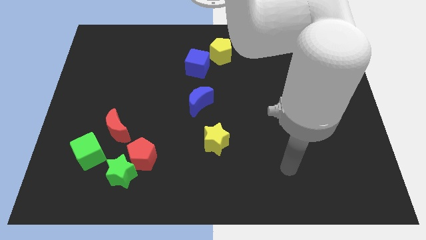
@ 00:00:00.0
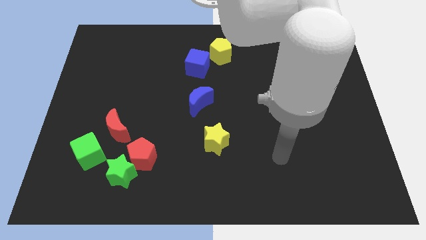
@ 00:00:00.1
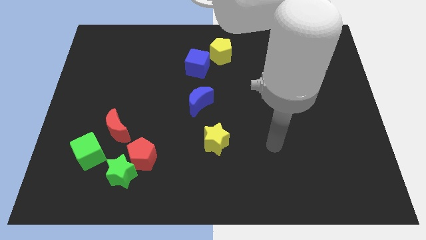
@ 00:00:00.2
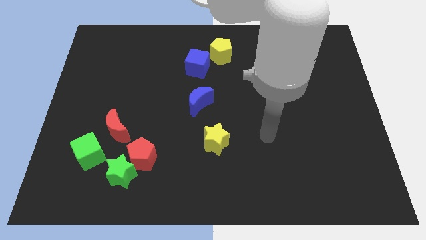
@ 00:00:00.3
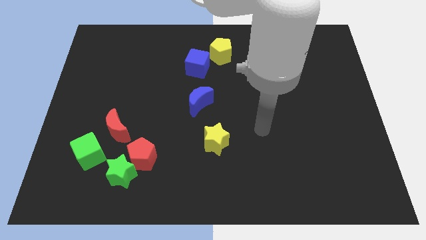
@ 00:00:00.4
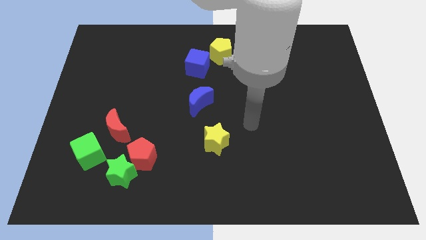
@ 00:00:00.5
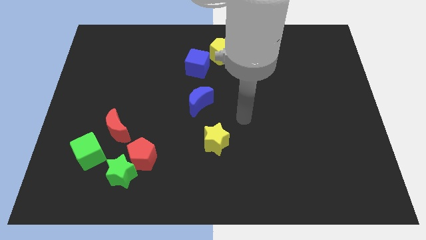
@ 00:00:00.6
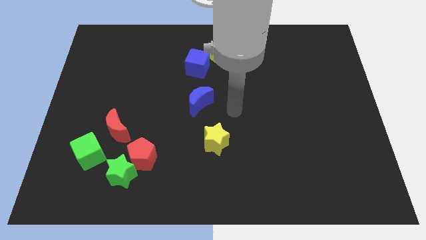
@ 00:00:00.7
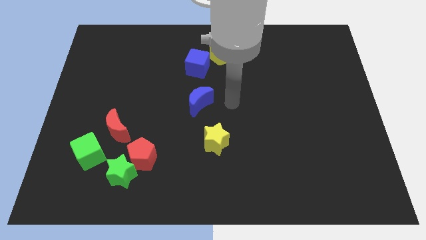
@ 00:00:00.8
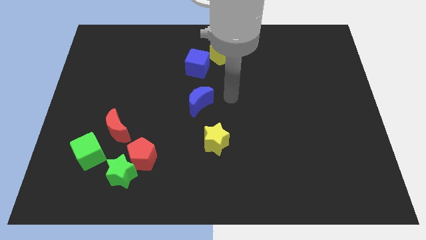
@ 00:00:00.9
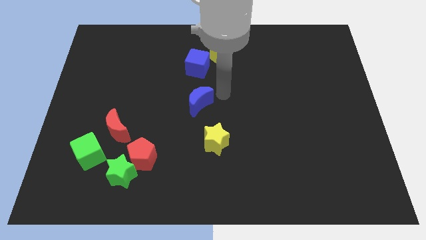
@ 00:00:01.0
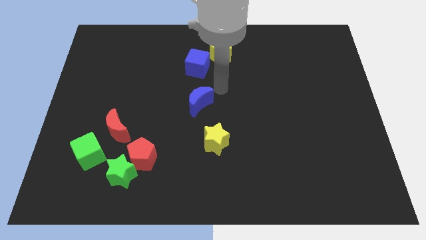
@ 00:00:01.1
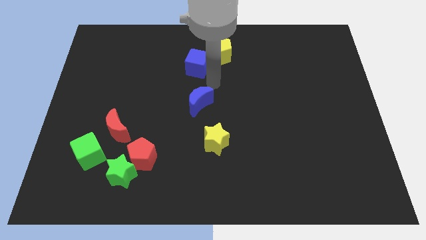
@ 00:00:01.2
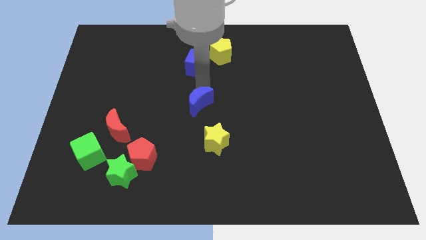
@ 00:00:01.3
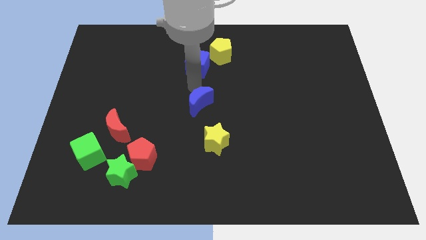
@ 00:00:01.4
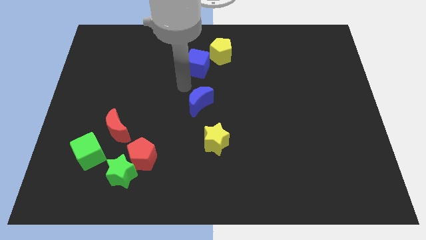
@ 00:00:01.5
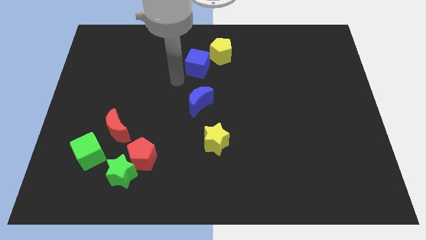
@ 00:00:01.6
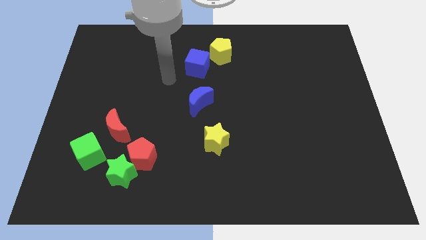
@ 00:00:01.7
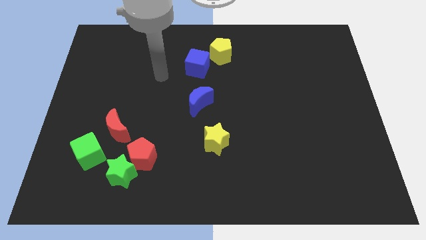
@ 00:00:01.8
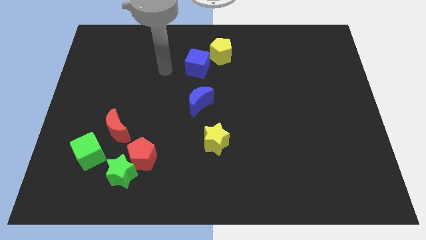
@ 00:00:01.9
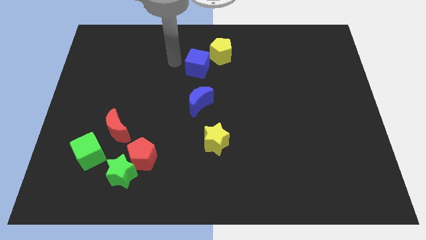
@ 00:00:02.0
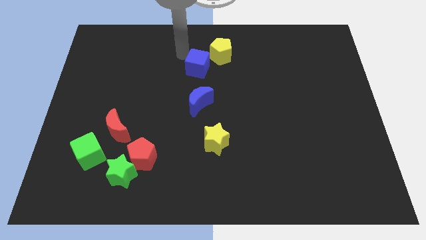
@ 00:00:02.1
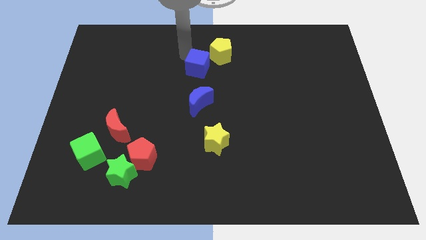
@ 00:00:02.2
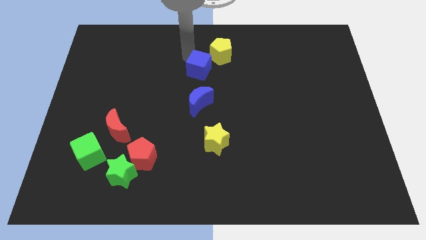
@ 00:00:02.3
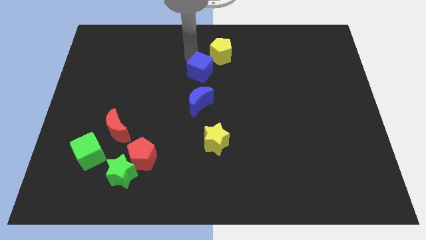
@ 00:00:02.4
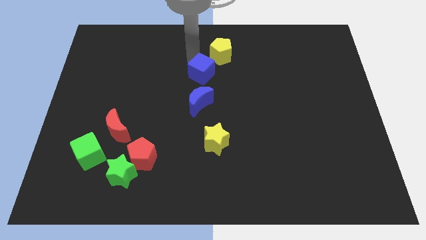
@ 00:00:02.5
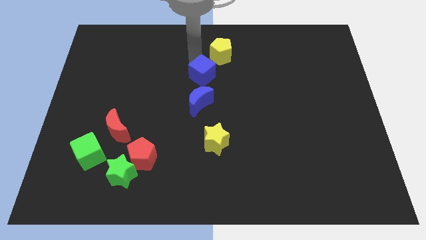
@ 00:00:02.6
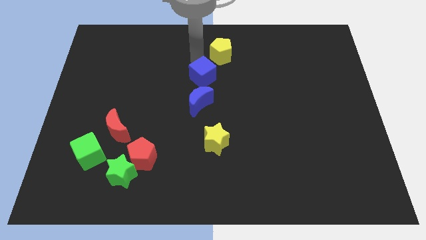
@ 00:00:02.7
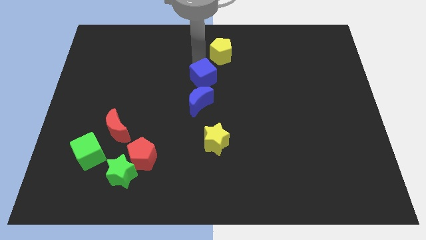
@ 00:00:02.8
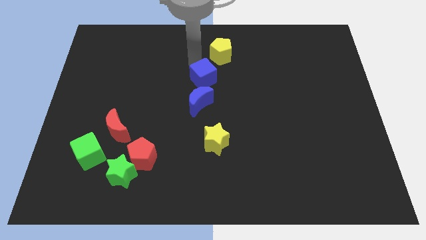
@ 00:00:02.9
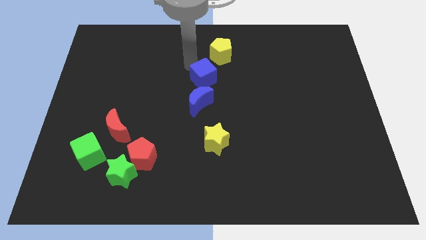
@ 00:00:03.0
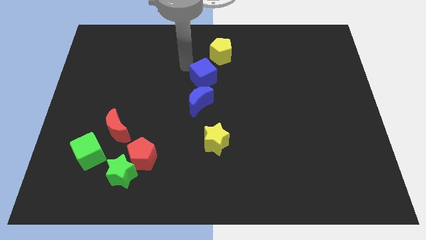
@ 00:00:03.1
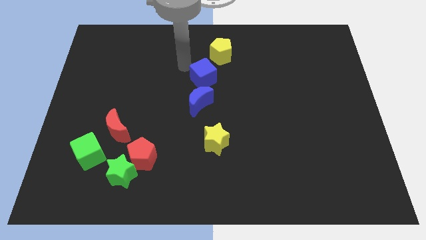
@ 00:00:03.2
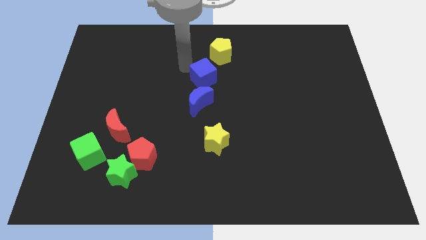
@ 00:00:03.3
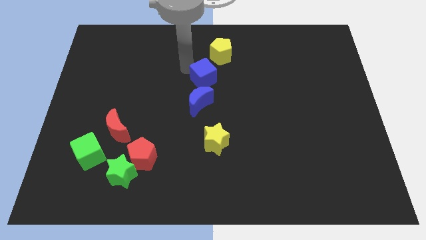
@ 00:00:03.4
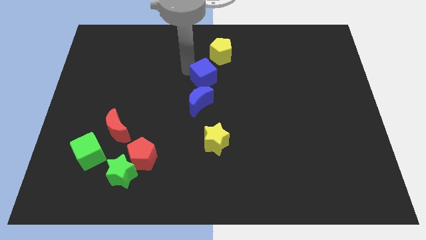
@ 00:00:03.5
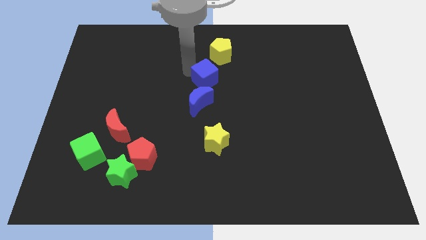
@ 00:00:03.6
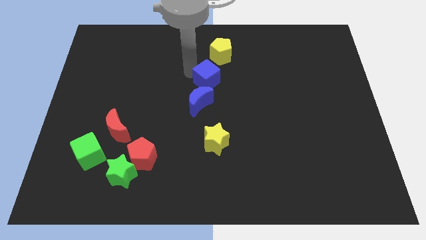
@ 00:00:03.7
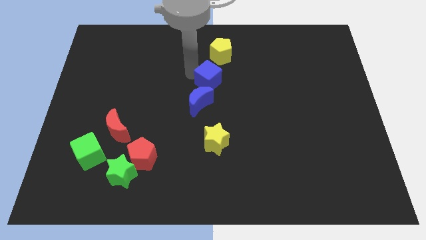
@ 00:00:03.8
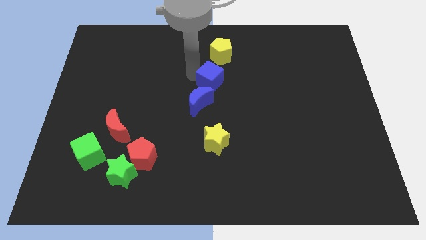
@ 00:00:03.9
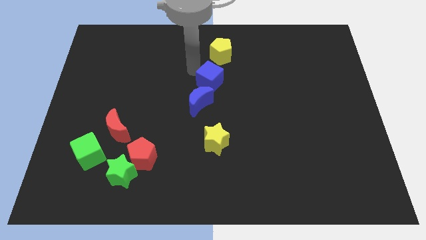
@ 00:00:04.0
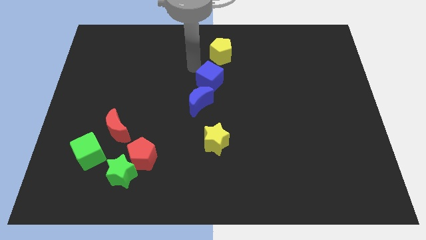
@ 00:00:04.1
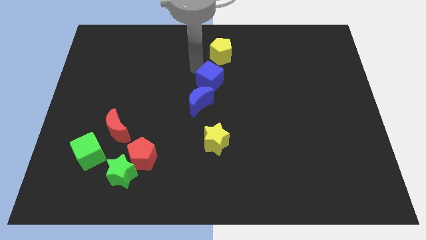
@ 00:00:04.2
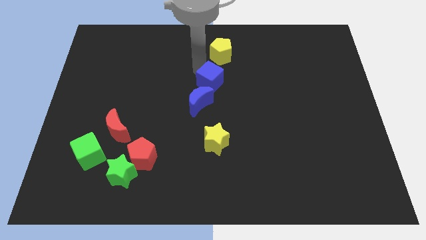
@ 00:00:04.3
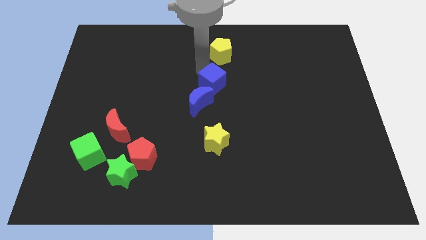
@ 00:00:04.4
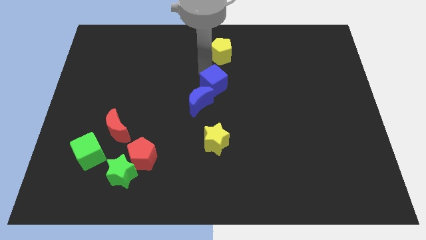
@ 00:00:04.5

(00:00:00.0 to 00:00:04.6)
move the blue cube diagonally down and right somewhat

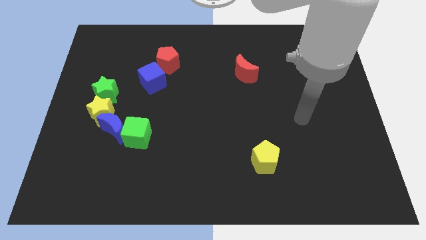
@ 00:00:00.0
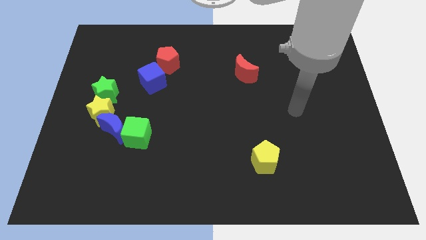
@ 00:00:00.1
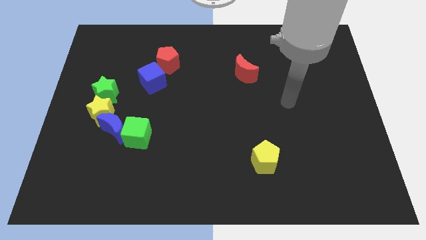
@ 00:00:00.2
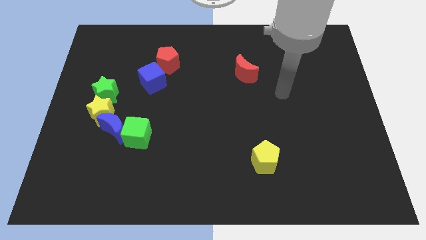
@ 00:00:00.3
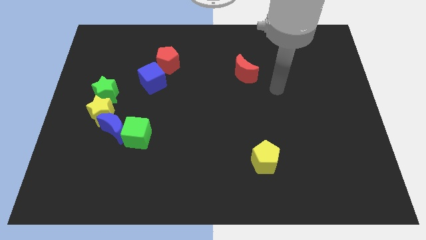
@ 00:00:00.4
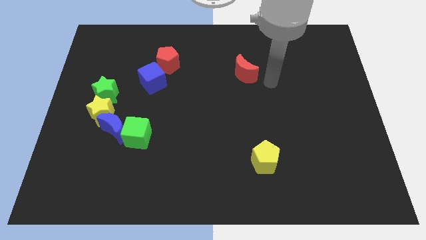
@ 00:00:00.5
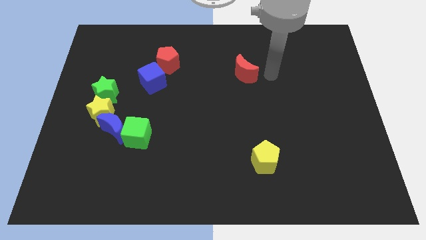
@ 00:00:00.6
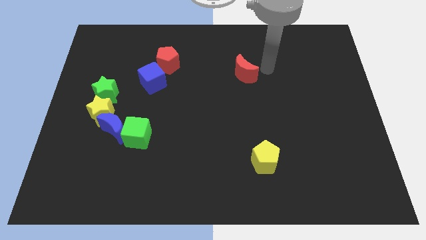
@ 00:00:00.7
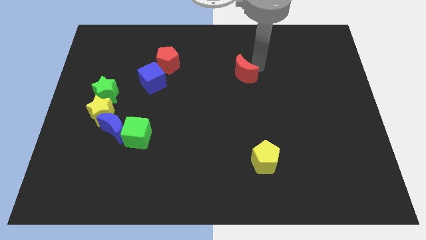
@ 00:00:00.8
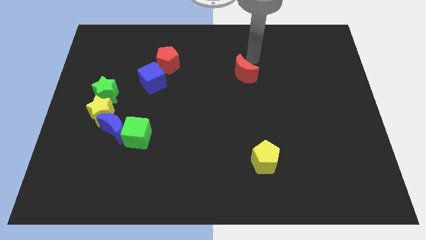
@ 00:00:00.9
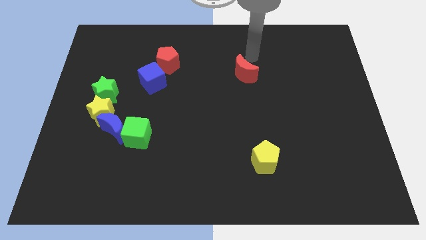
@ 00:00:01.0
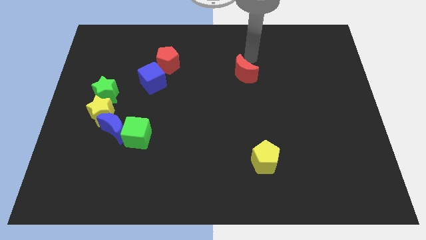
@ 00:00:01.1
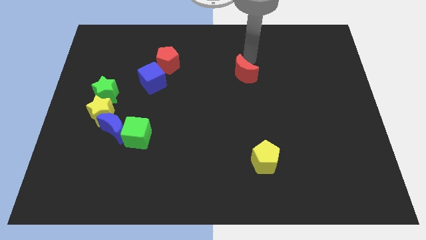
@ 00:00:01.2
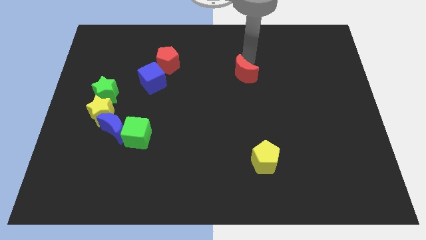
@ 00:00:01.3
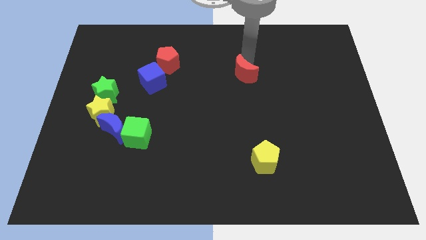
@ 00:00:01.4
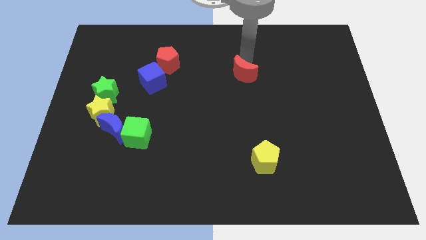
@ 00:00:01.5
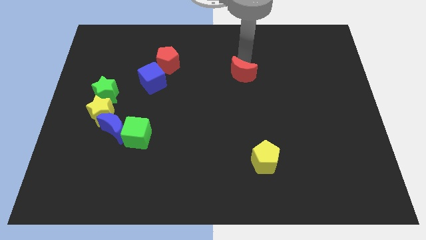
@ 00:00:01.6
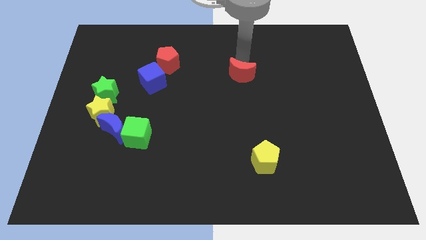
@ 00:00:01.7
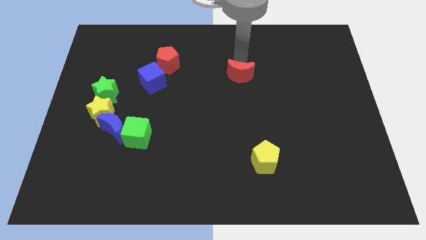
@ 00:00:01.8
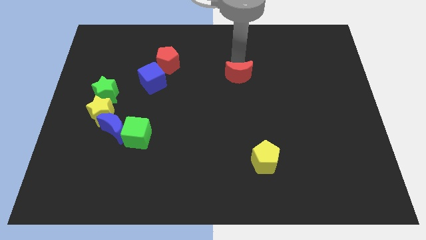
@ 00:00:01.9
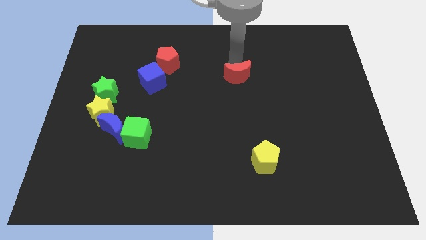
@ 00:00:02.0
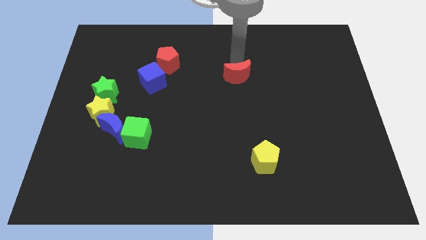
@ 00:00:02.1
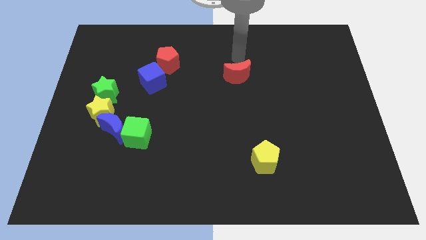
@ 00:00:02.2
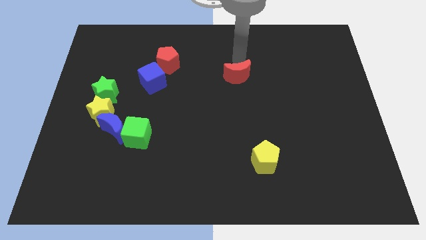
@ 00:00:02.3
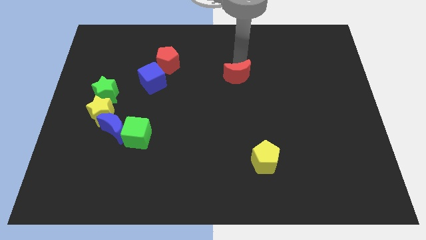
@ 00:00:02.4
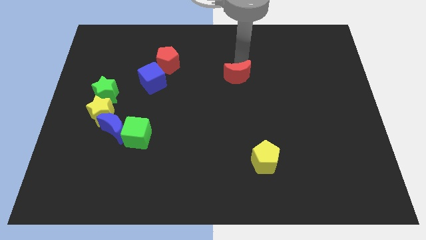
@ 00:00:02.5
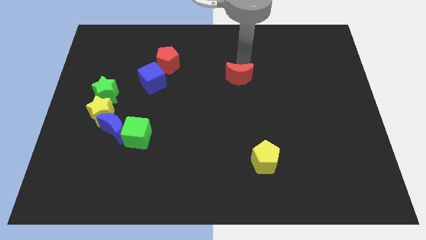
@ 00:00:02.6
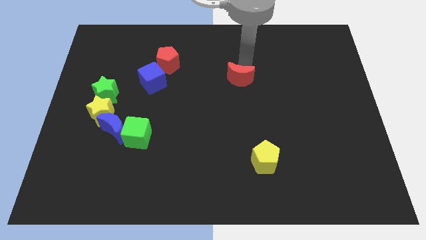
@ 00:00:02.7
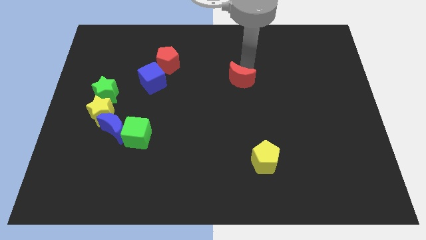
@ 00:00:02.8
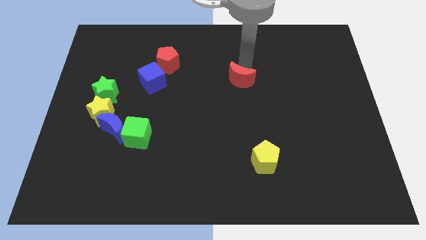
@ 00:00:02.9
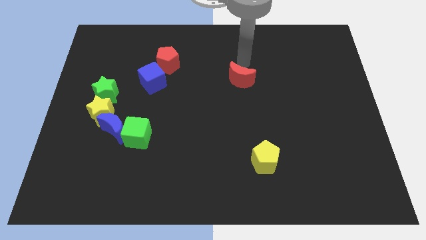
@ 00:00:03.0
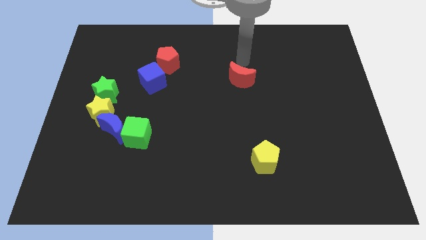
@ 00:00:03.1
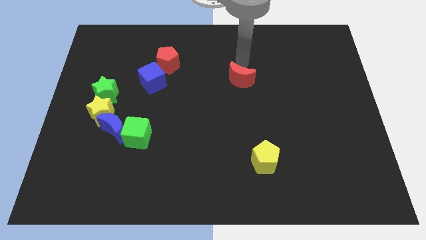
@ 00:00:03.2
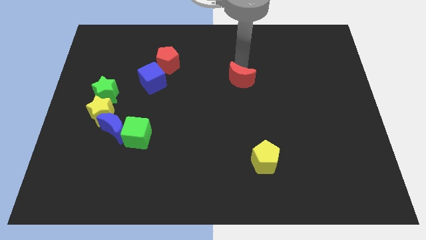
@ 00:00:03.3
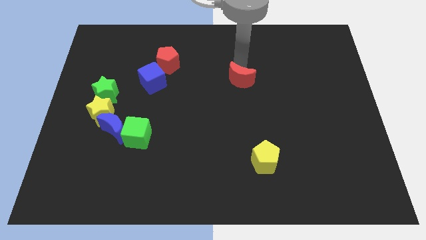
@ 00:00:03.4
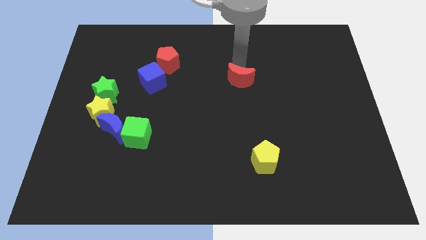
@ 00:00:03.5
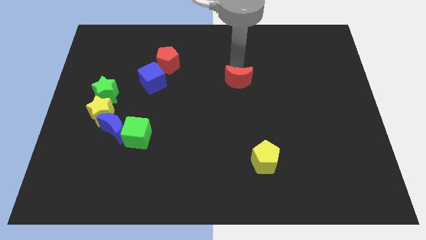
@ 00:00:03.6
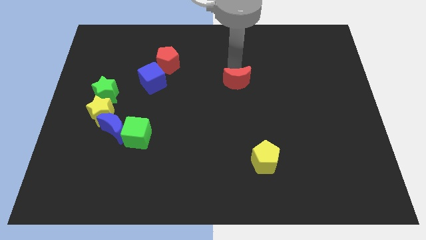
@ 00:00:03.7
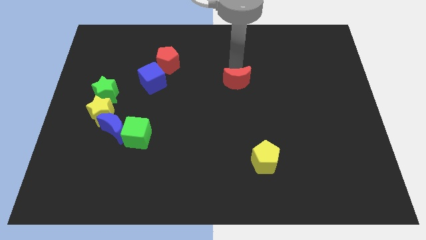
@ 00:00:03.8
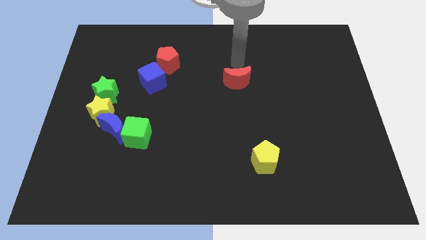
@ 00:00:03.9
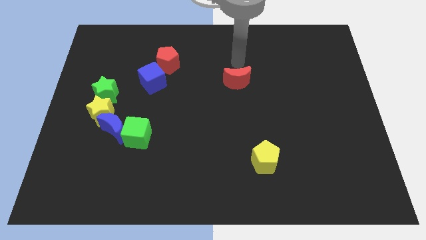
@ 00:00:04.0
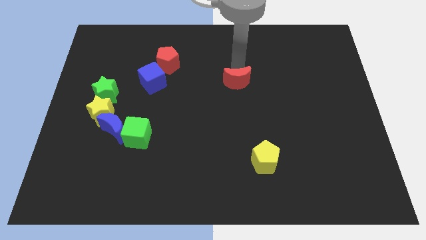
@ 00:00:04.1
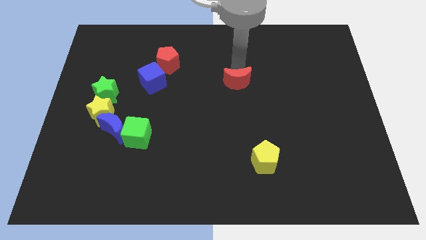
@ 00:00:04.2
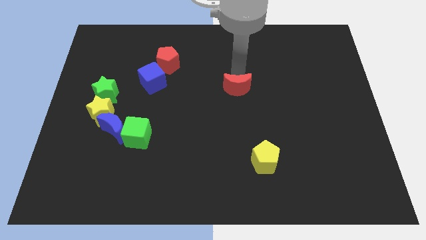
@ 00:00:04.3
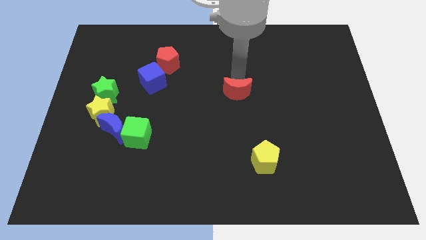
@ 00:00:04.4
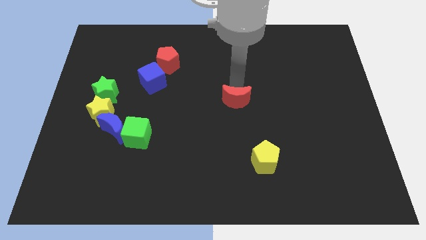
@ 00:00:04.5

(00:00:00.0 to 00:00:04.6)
slide the red moon downwards slightly
